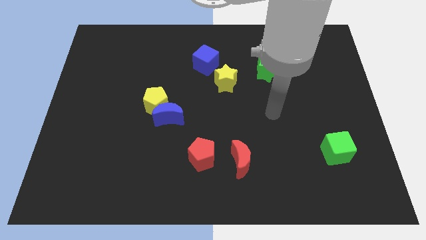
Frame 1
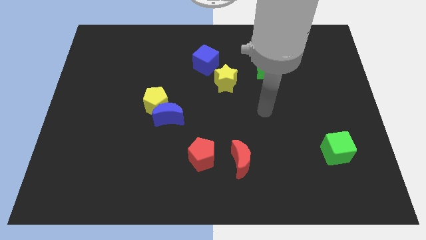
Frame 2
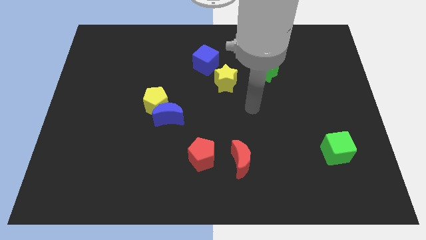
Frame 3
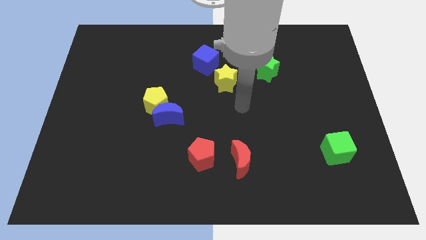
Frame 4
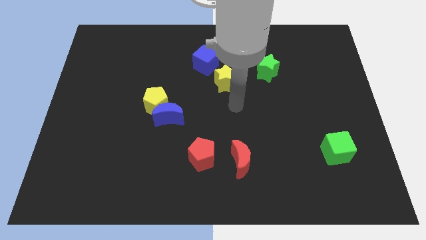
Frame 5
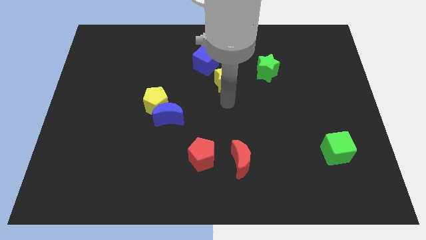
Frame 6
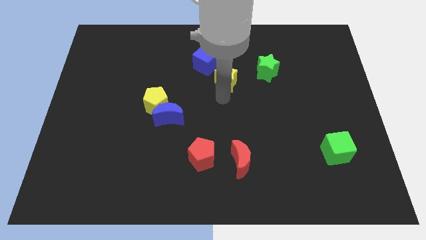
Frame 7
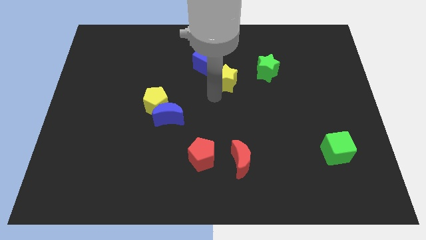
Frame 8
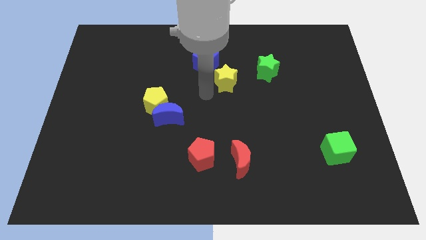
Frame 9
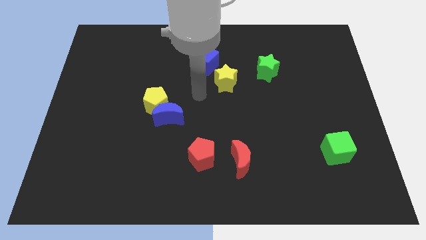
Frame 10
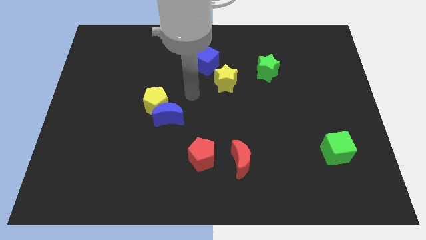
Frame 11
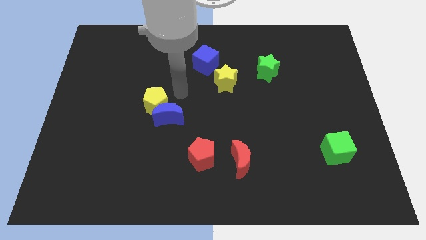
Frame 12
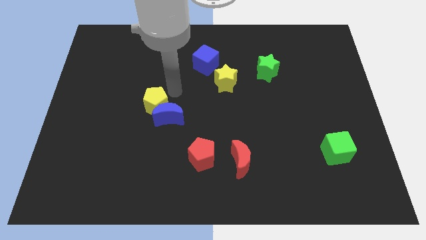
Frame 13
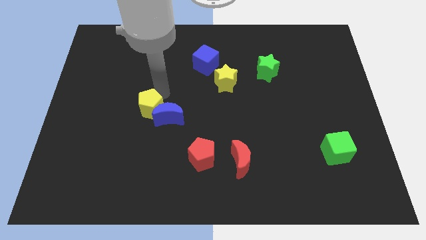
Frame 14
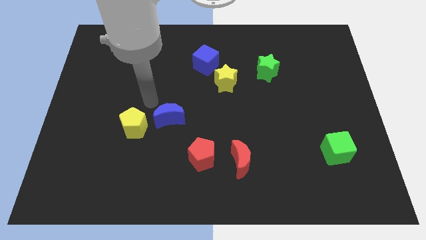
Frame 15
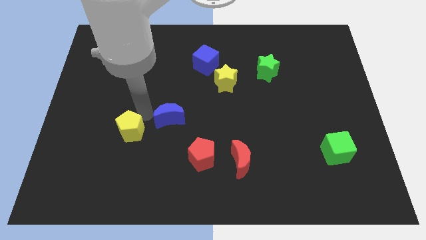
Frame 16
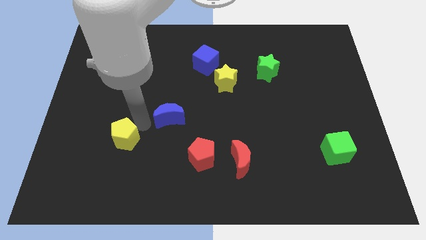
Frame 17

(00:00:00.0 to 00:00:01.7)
pull the blue moon apart from the yellow pentagon

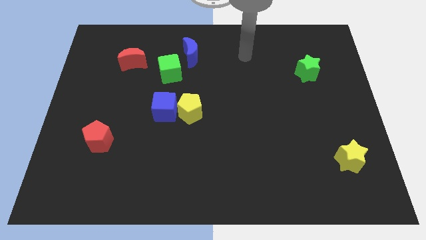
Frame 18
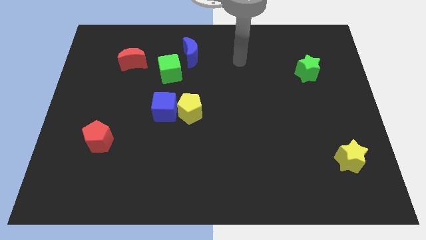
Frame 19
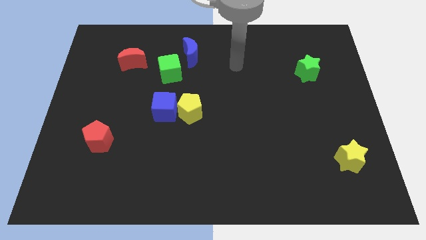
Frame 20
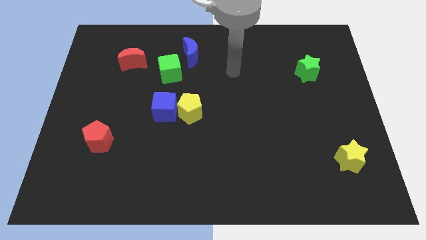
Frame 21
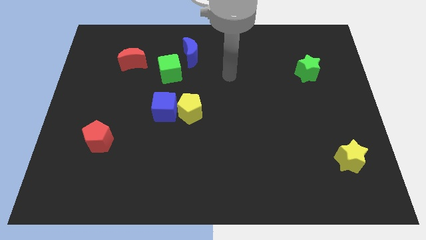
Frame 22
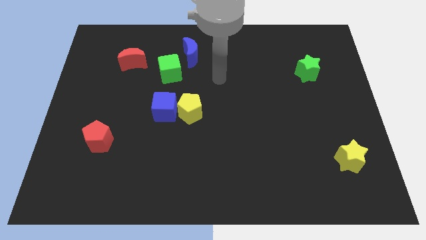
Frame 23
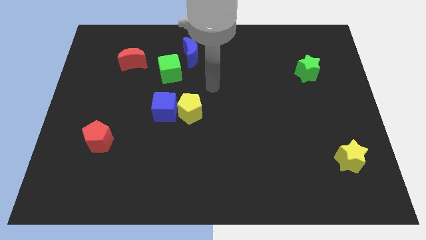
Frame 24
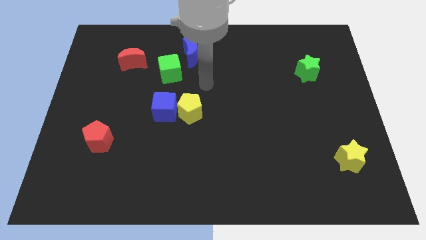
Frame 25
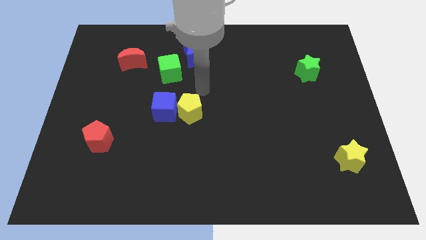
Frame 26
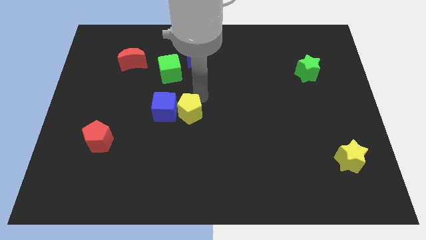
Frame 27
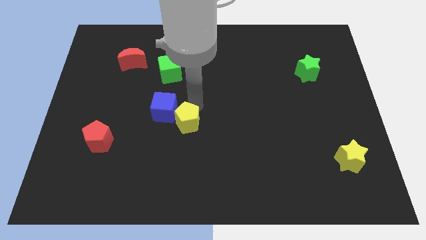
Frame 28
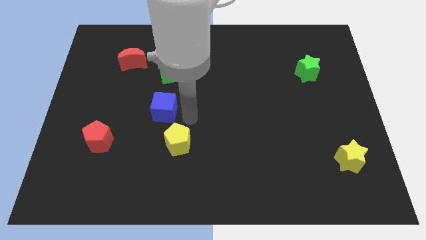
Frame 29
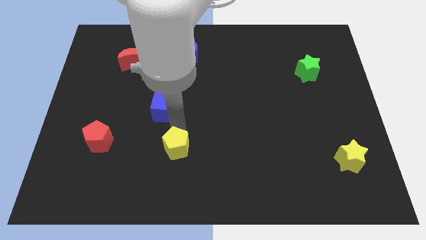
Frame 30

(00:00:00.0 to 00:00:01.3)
pull the blue cube apart from the yellow pentagon

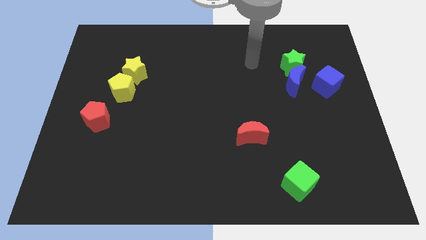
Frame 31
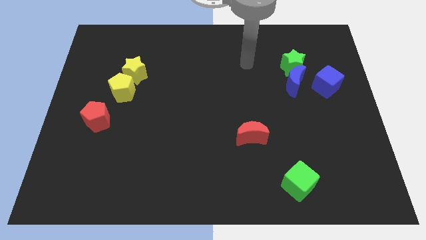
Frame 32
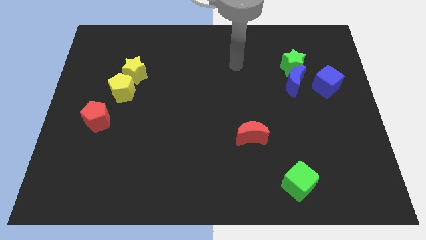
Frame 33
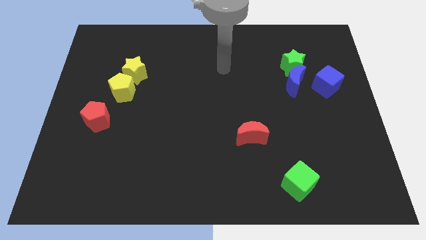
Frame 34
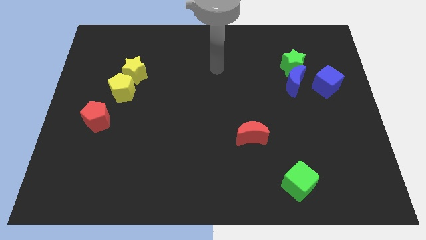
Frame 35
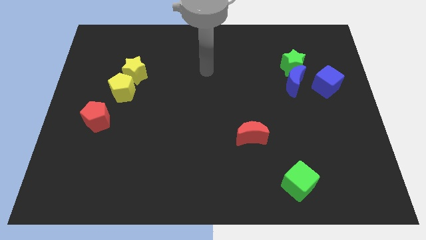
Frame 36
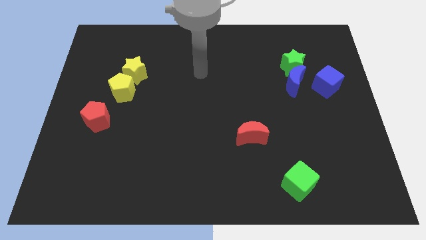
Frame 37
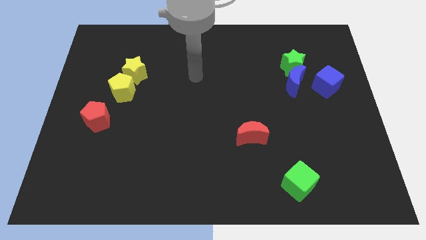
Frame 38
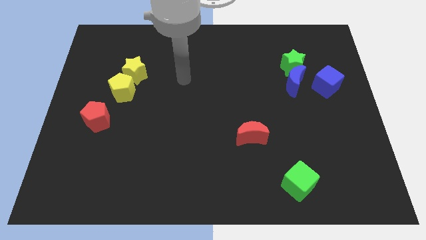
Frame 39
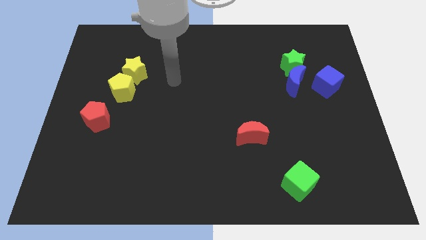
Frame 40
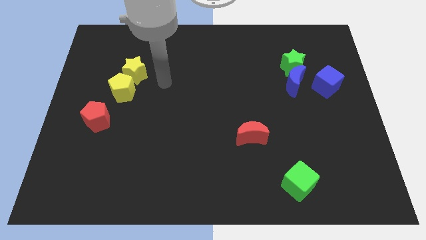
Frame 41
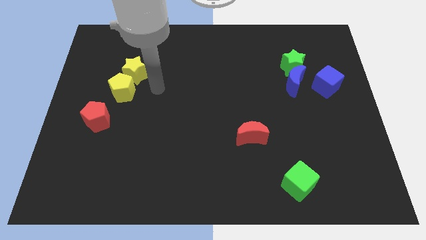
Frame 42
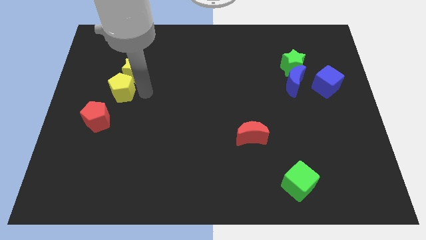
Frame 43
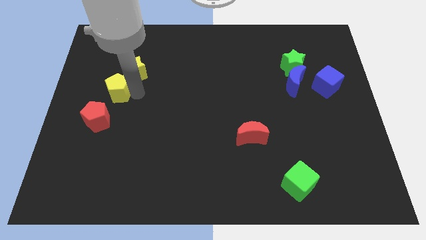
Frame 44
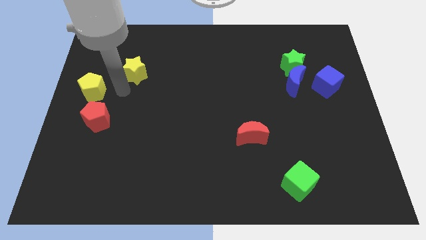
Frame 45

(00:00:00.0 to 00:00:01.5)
pull the yellow star apart from the yellow pentagon

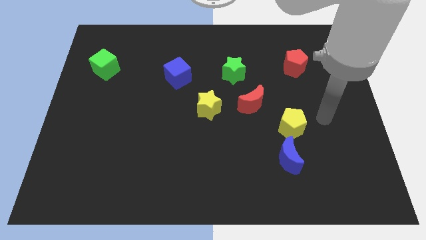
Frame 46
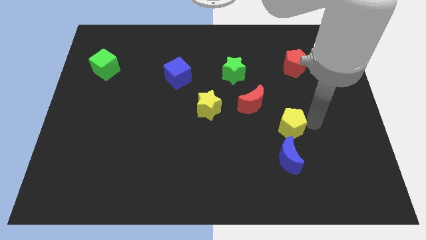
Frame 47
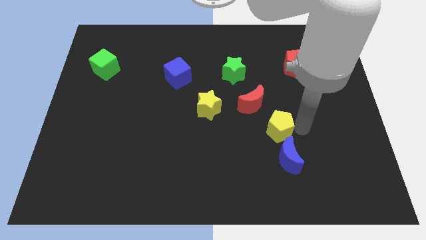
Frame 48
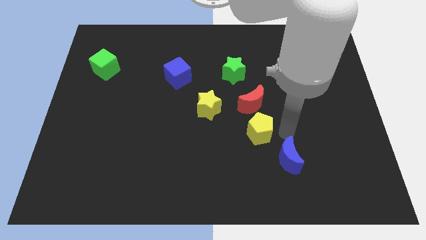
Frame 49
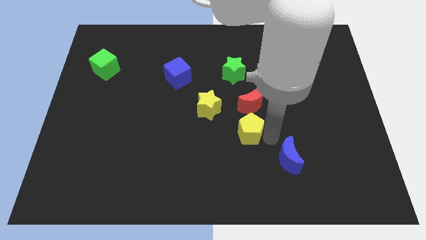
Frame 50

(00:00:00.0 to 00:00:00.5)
move the blue moon away from the yellow pentagon

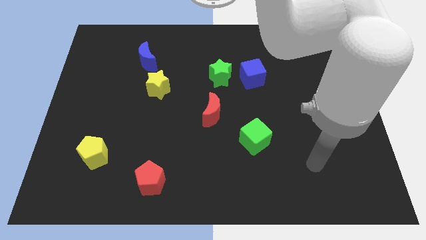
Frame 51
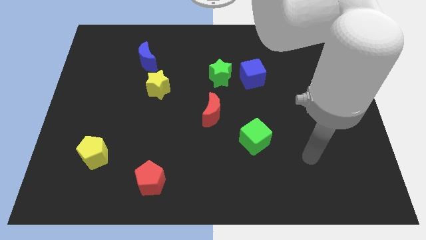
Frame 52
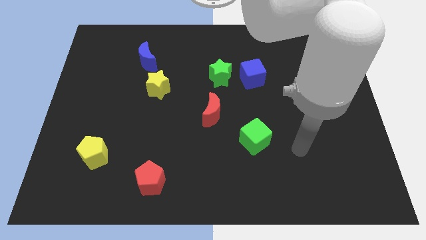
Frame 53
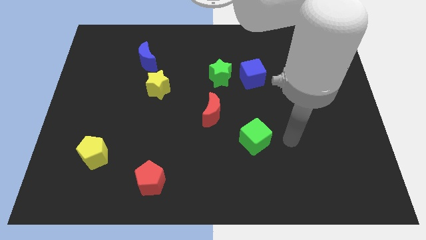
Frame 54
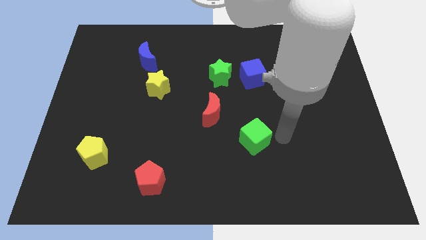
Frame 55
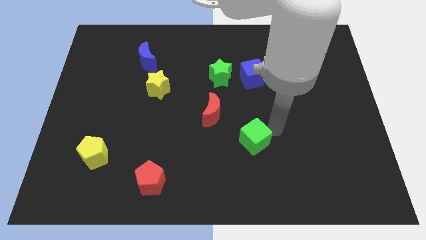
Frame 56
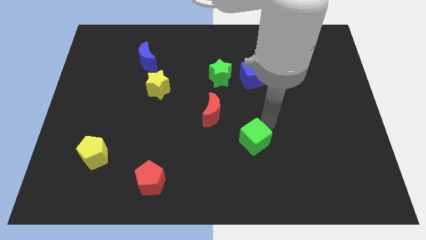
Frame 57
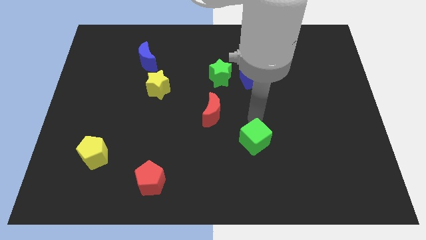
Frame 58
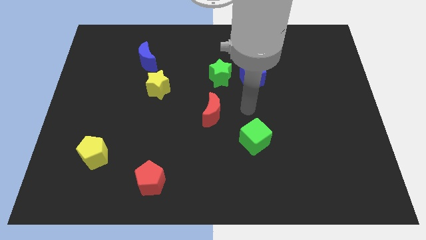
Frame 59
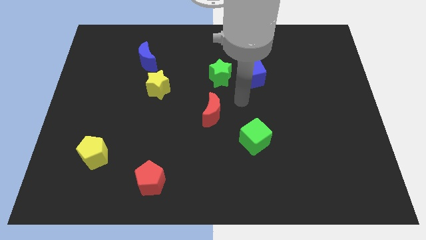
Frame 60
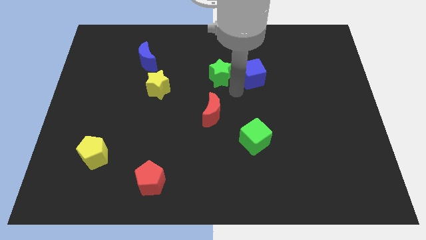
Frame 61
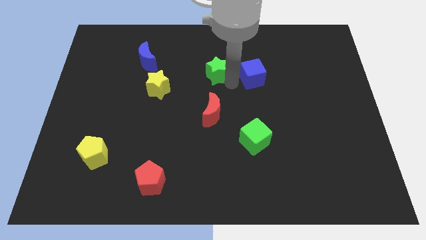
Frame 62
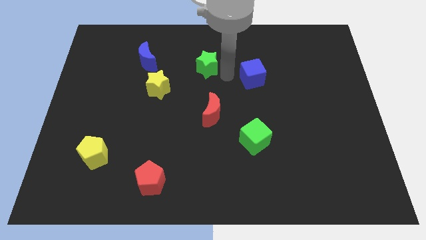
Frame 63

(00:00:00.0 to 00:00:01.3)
separate the blue cube from the green star

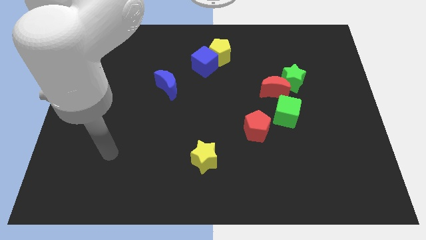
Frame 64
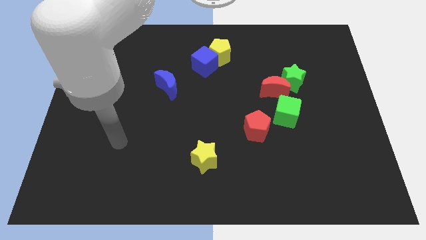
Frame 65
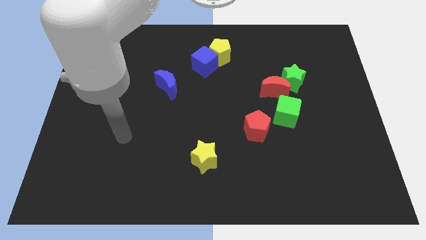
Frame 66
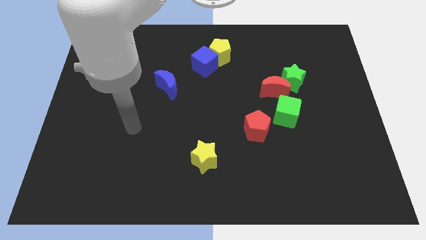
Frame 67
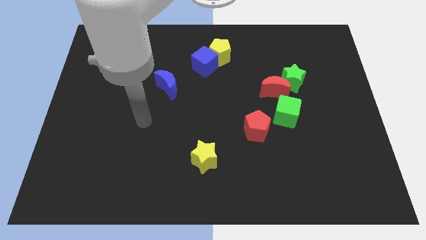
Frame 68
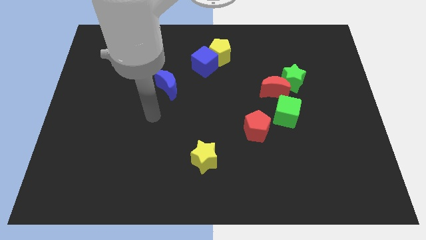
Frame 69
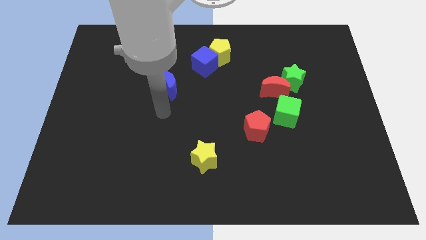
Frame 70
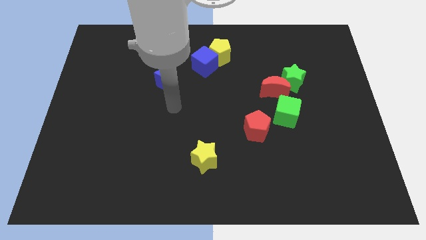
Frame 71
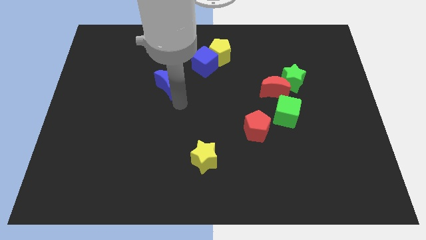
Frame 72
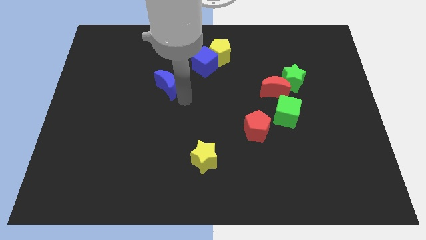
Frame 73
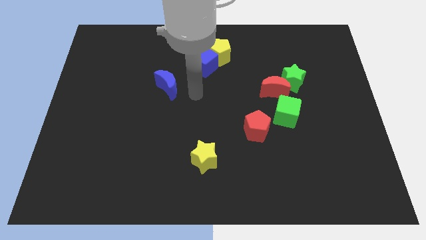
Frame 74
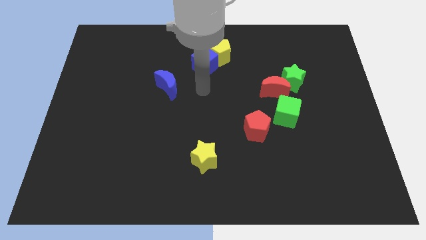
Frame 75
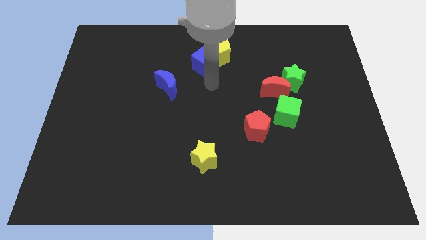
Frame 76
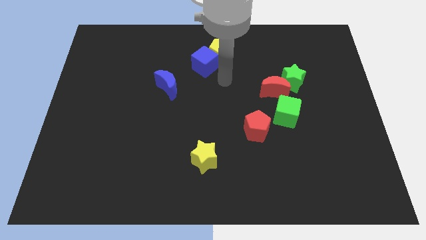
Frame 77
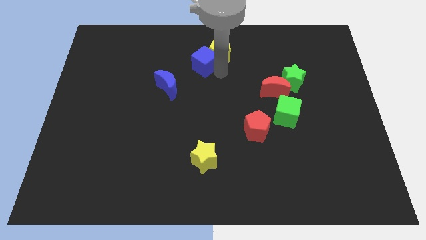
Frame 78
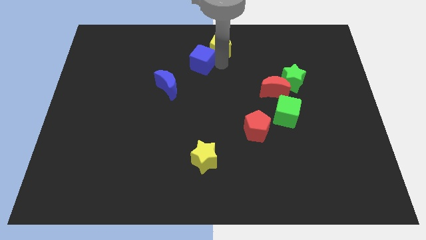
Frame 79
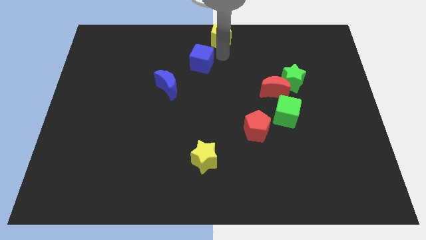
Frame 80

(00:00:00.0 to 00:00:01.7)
move the blue cube away from the yellow pentagon

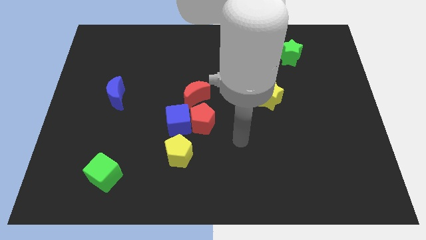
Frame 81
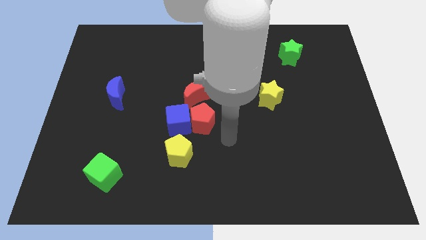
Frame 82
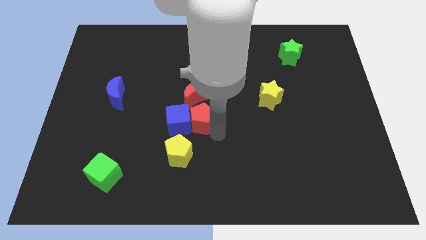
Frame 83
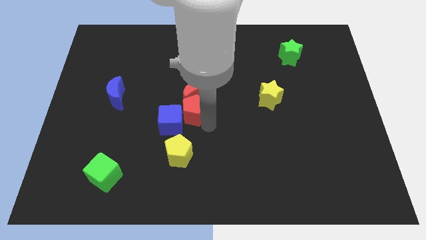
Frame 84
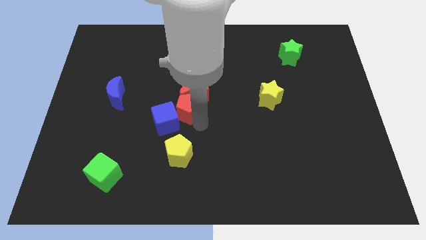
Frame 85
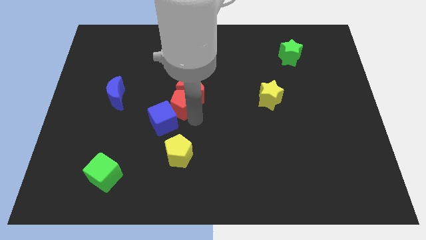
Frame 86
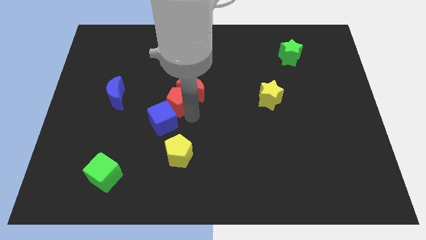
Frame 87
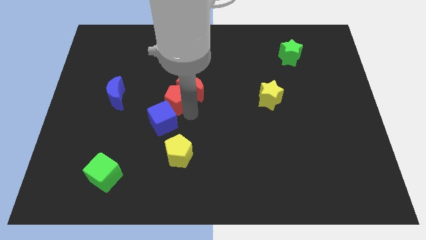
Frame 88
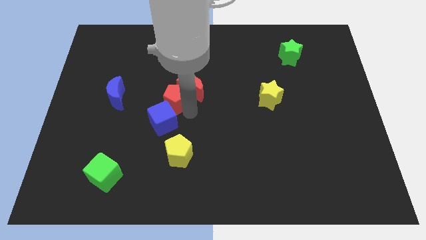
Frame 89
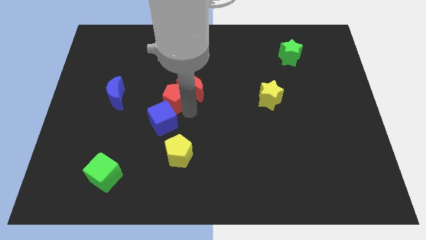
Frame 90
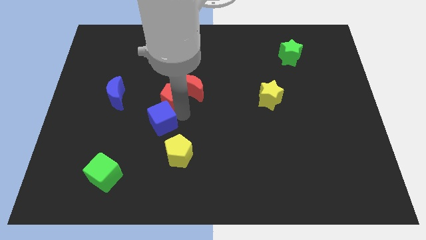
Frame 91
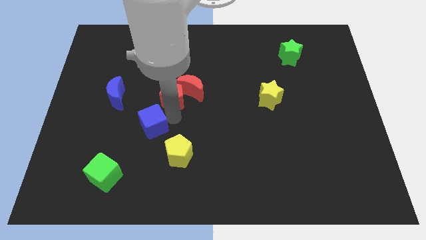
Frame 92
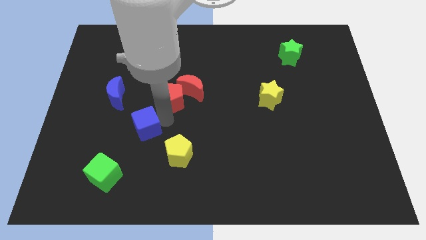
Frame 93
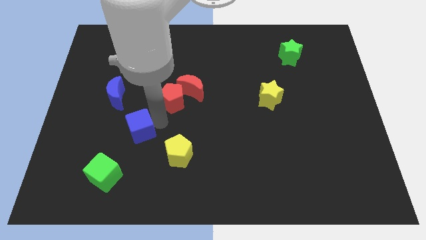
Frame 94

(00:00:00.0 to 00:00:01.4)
move the blue cube away from the red pentagon, yellow pentagon, and red moon
